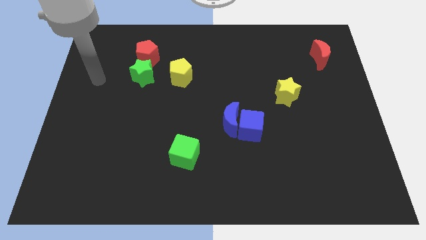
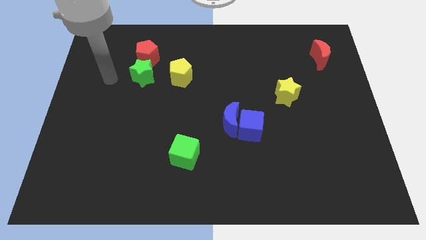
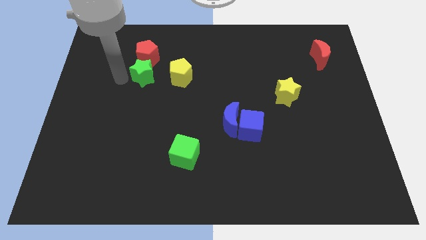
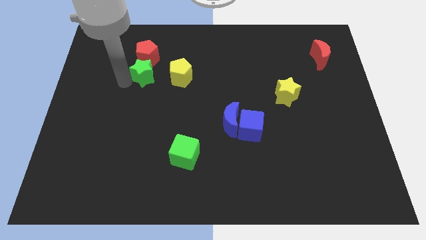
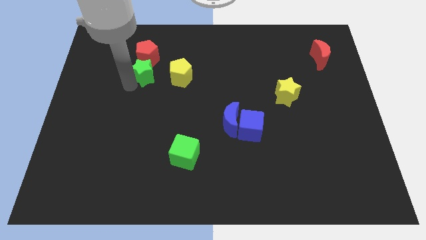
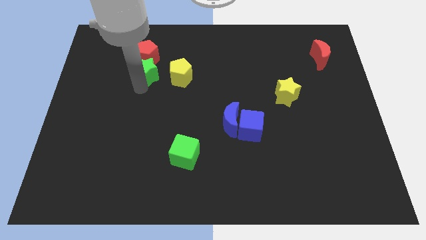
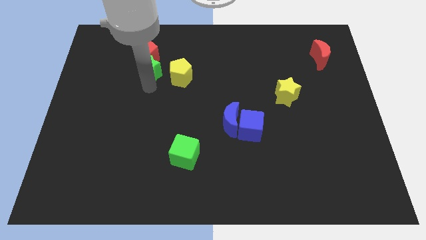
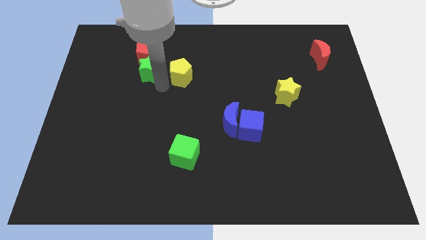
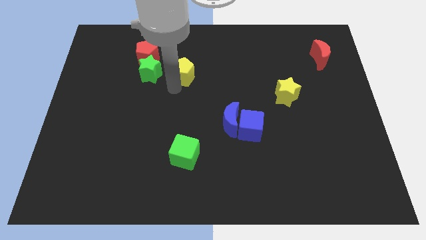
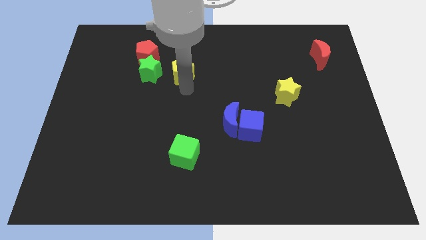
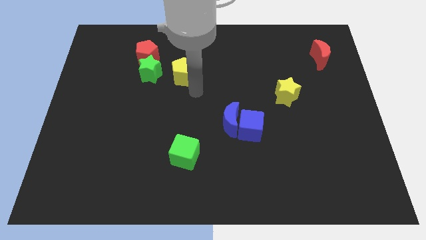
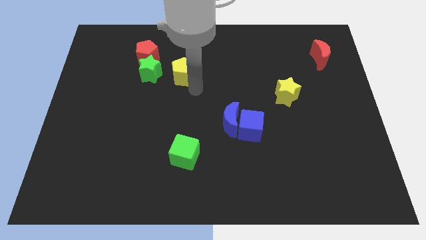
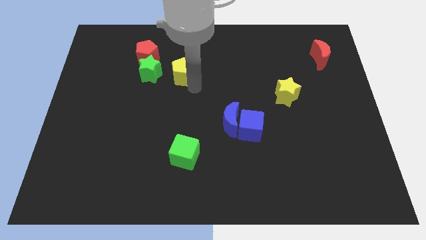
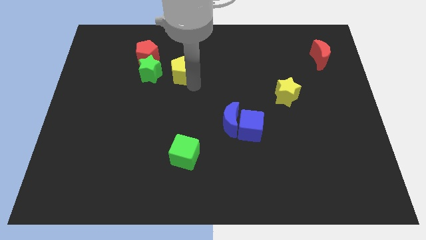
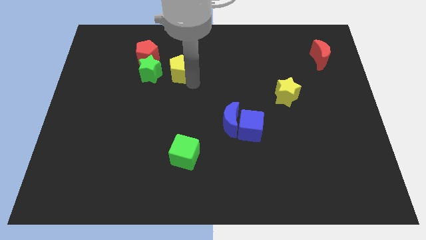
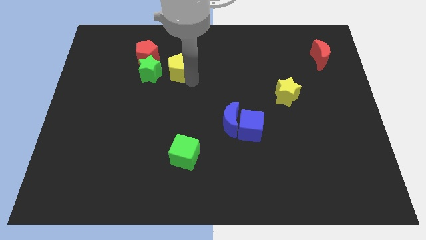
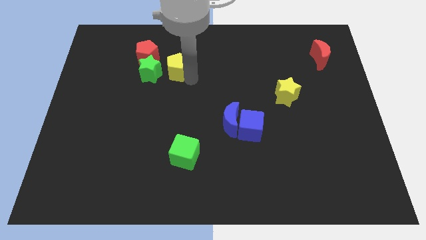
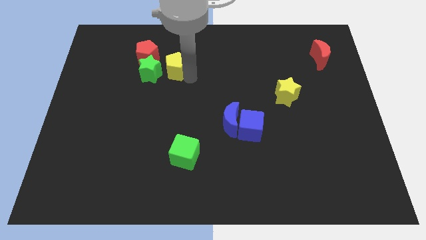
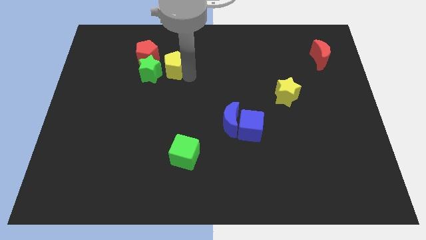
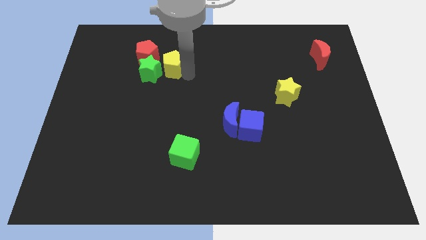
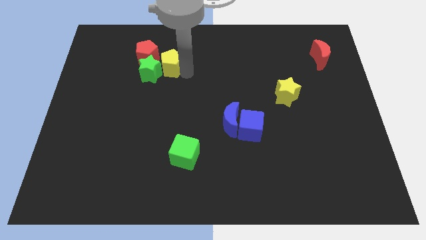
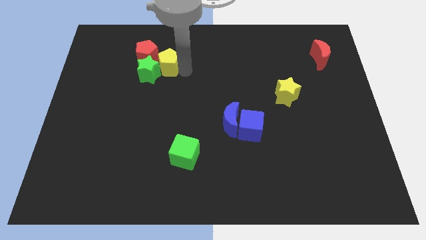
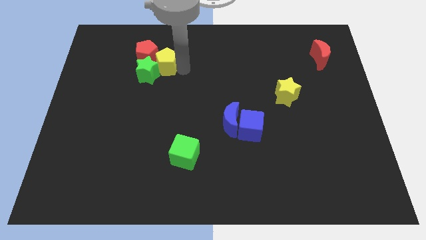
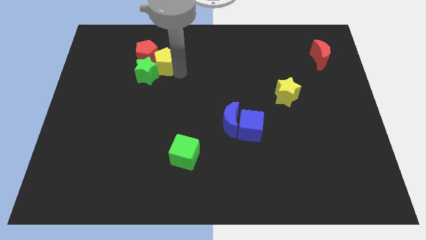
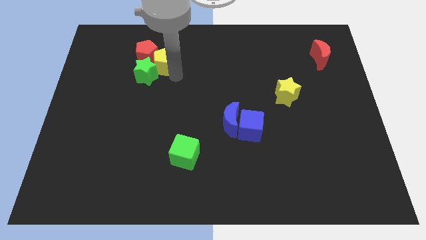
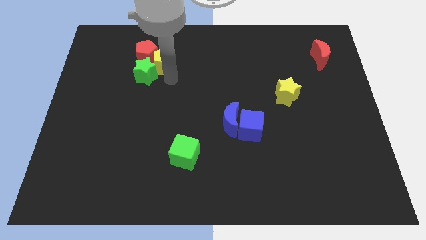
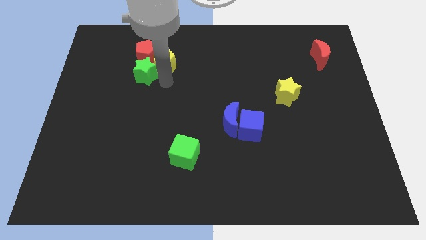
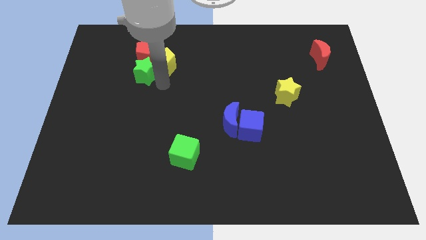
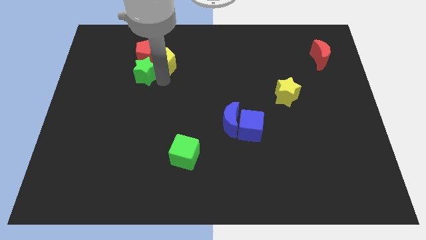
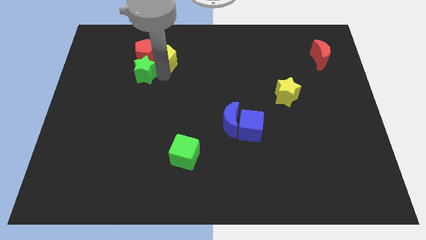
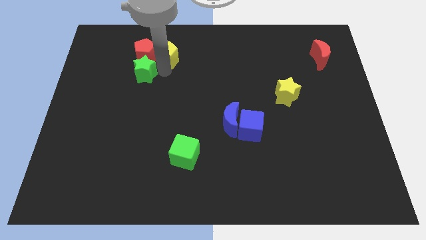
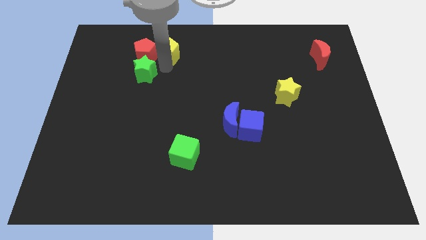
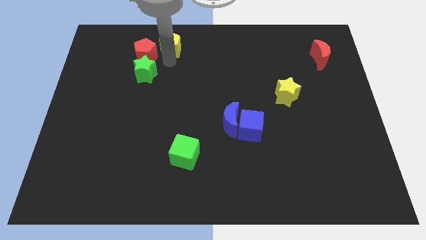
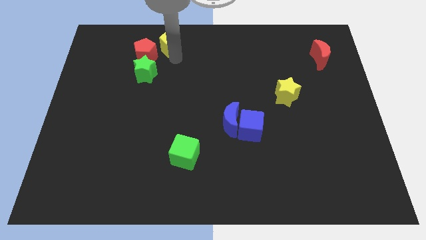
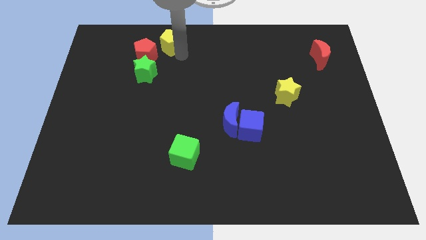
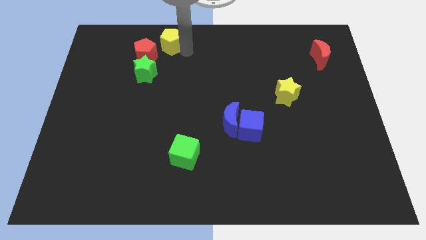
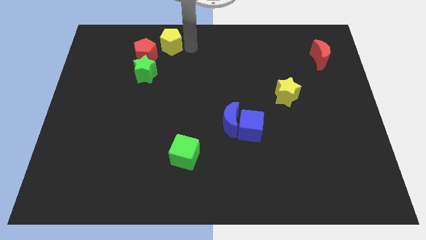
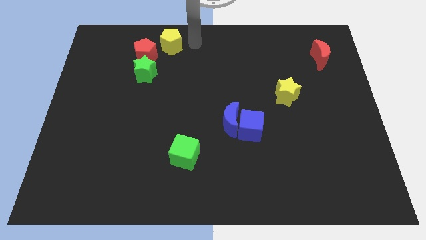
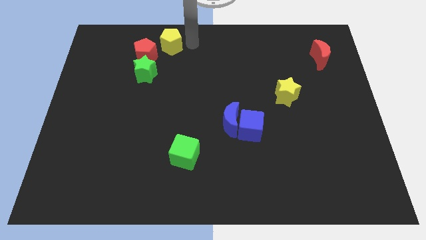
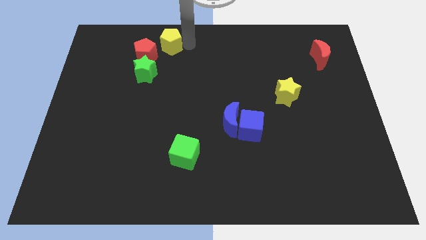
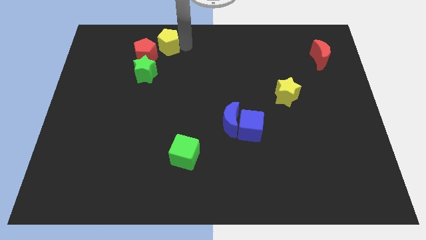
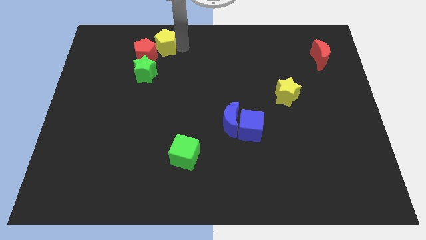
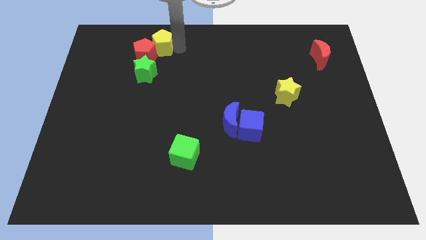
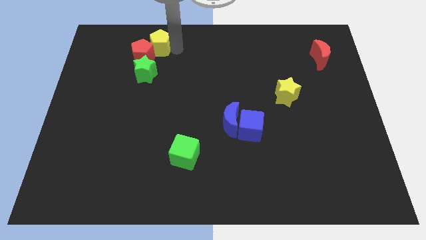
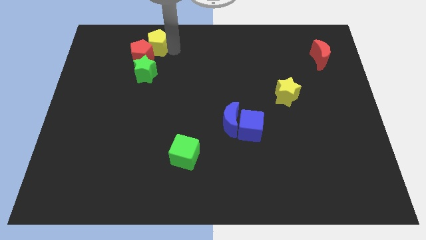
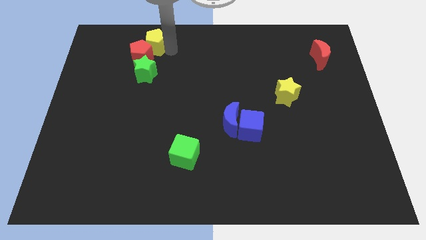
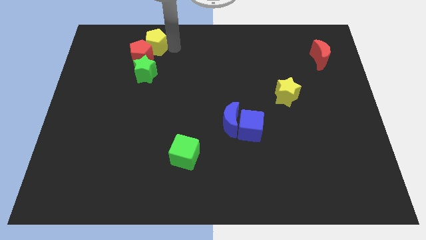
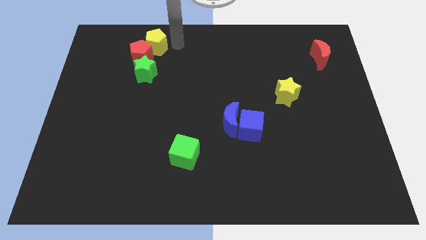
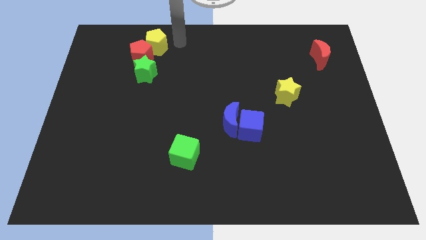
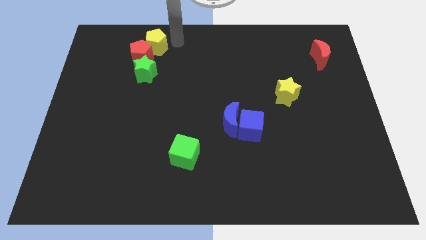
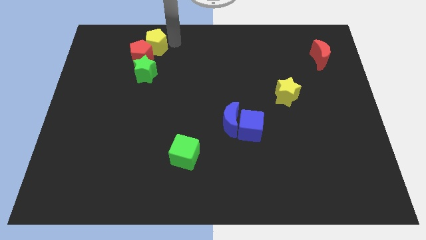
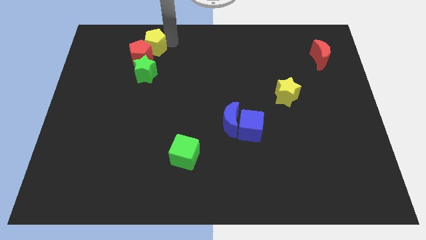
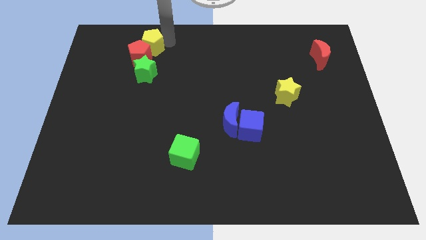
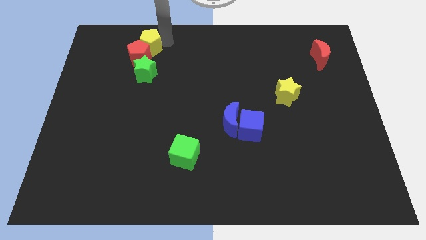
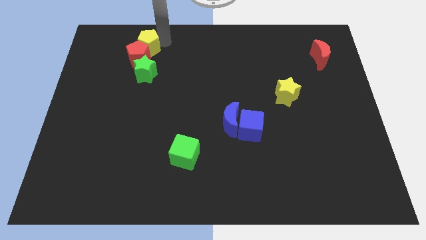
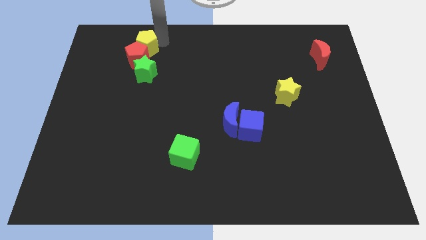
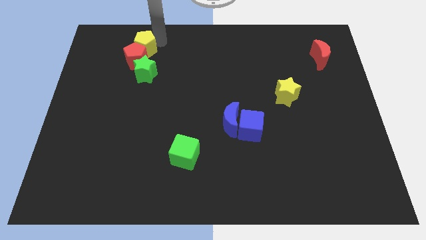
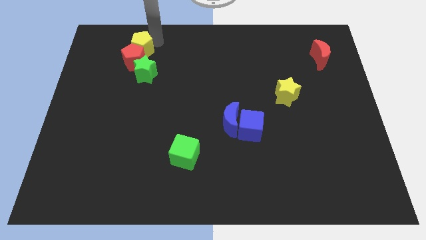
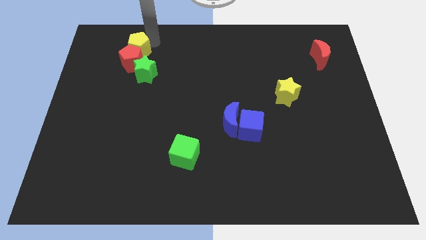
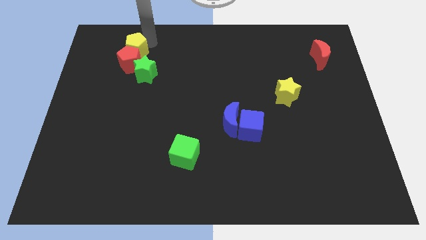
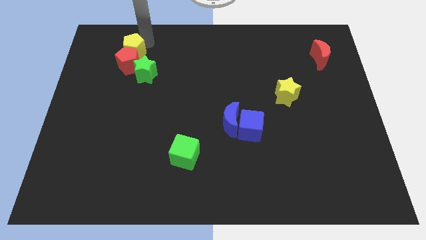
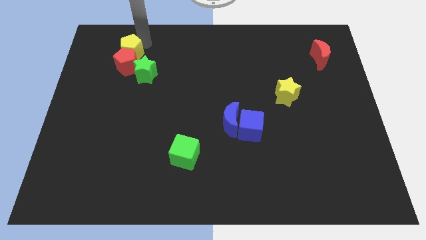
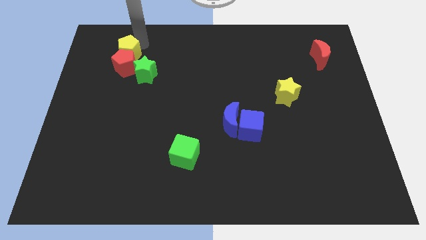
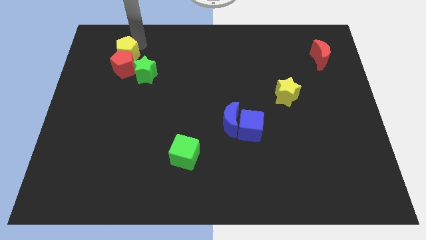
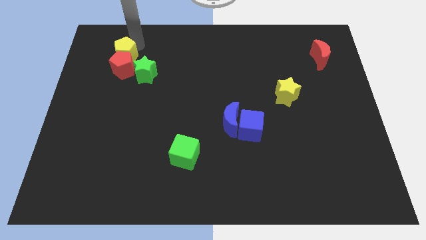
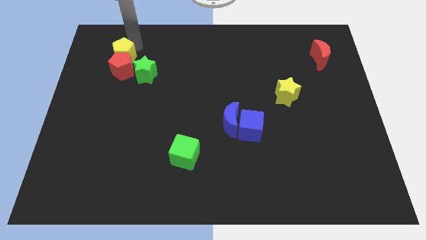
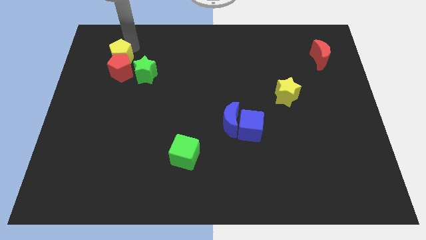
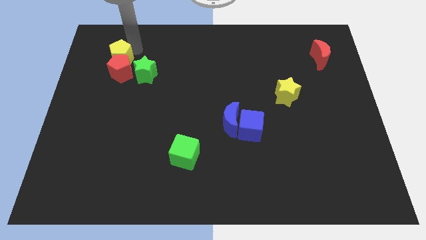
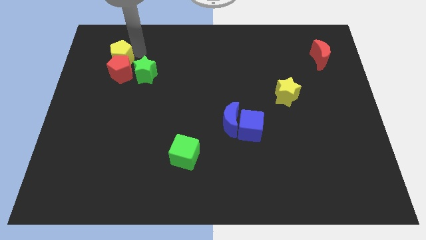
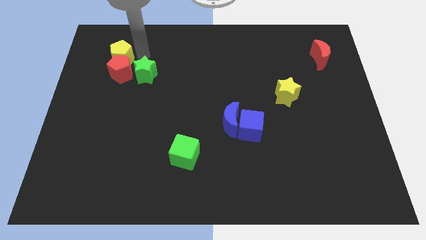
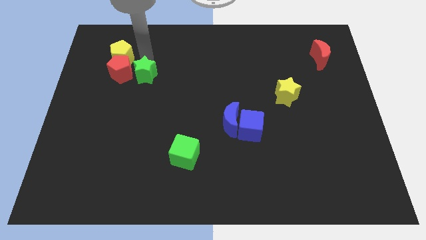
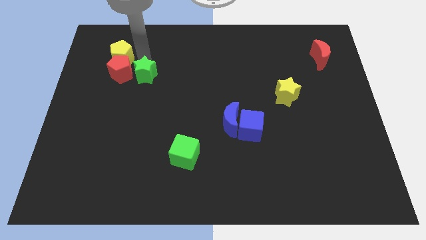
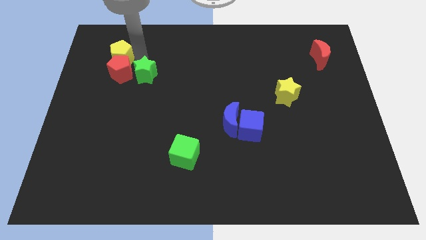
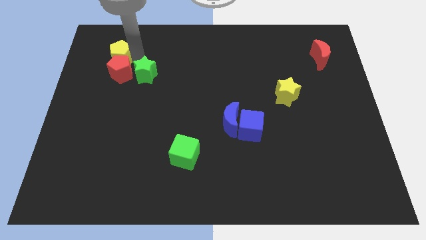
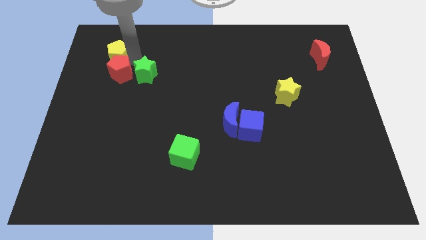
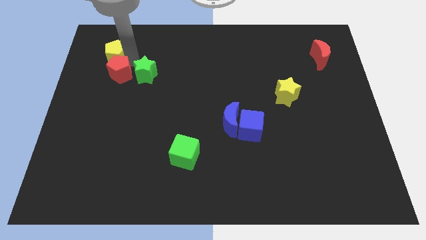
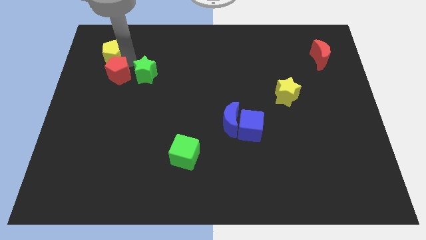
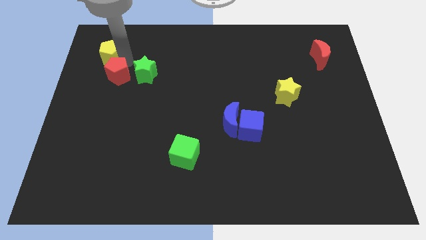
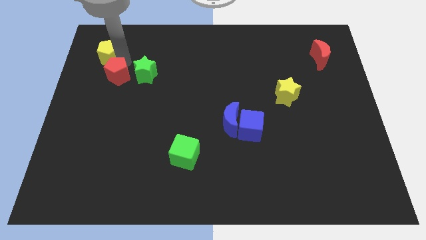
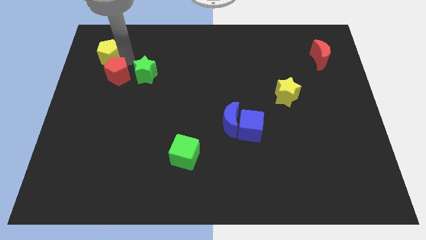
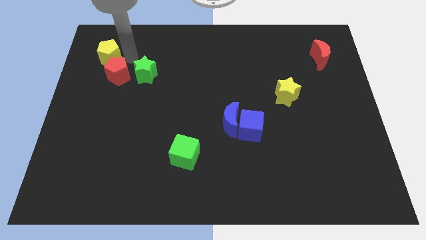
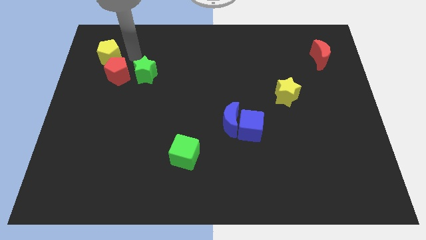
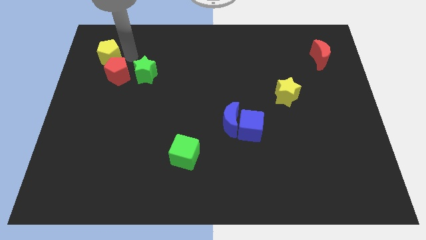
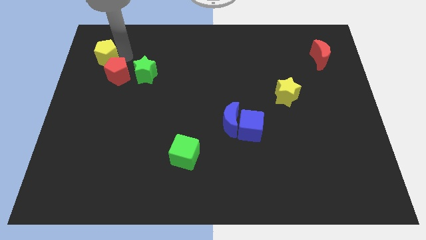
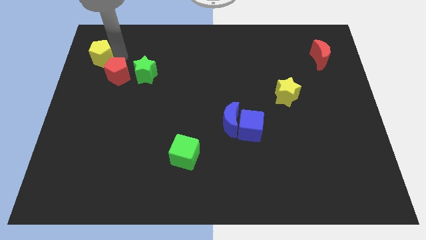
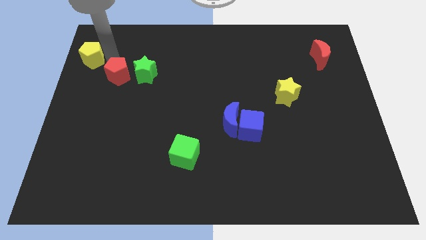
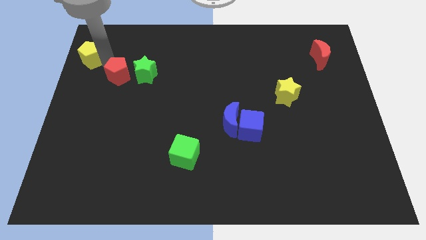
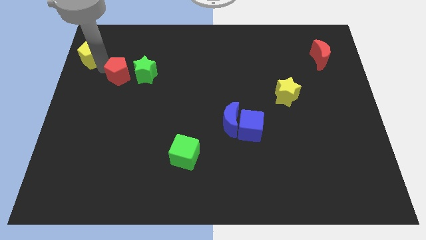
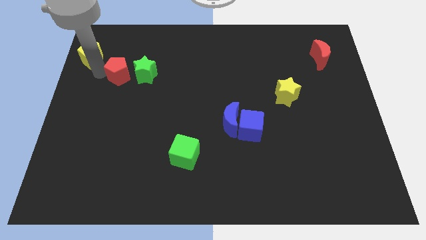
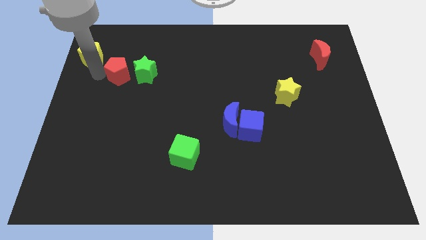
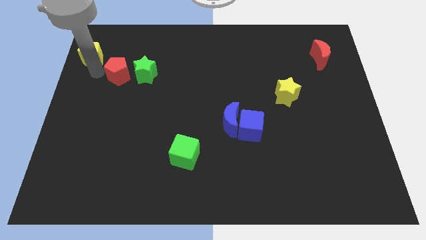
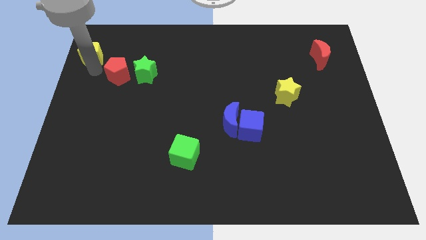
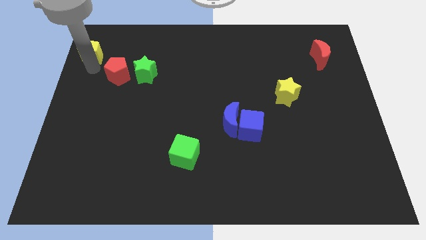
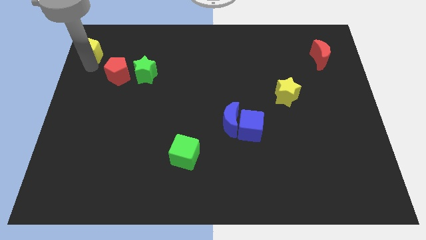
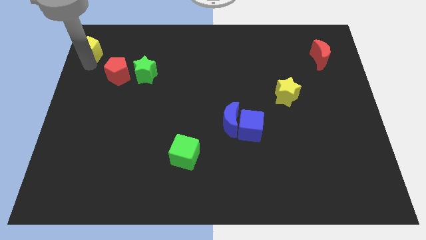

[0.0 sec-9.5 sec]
push the yellow pentagon to the top left corner
